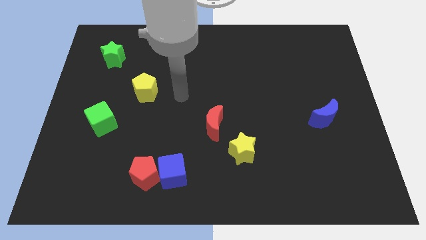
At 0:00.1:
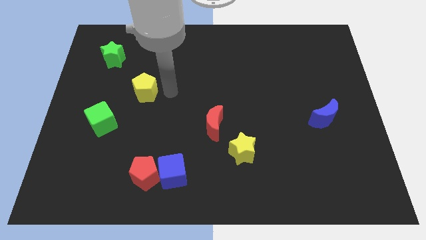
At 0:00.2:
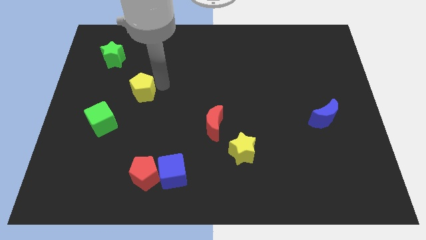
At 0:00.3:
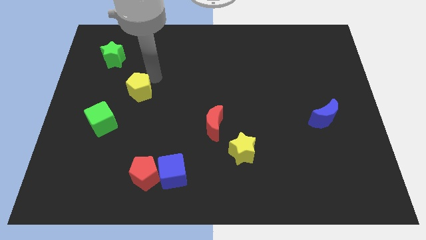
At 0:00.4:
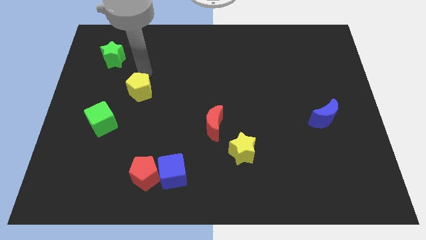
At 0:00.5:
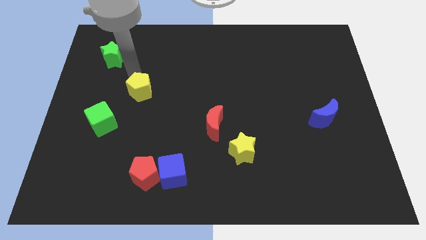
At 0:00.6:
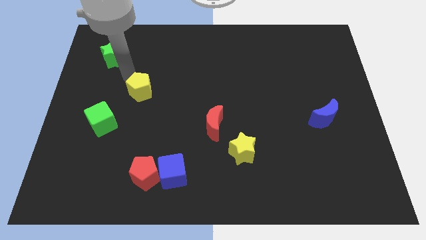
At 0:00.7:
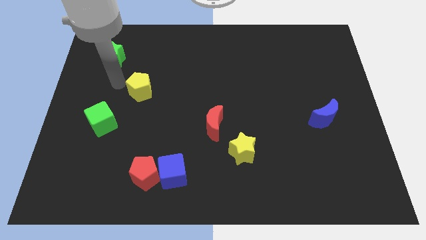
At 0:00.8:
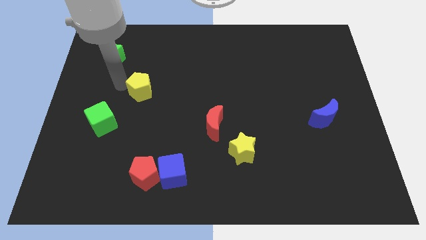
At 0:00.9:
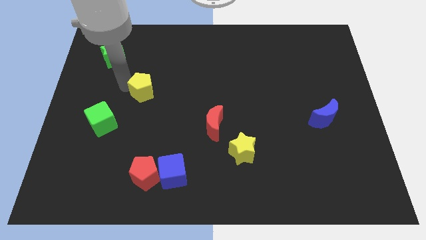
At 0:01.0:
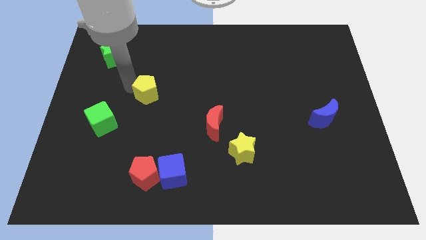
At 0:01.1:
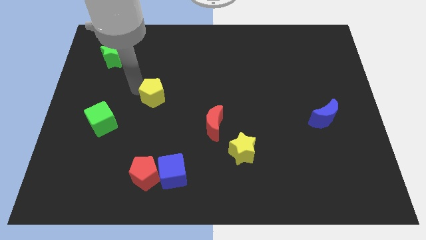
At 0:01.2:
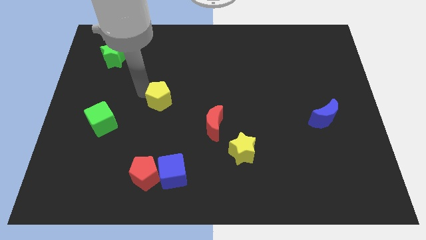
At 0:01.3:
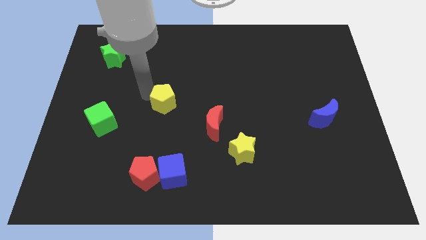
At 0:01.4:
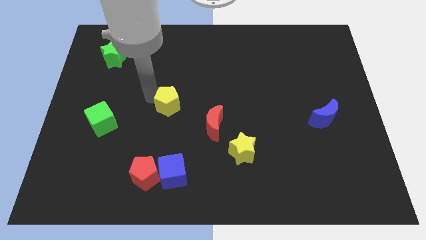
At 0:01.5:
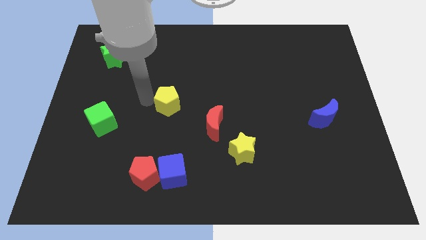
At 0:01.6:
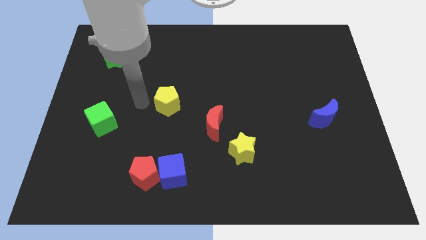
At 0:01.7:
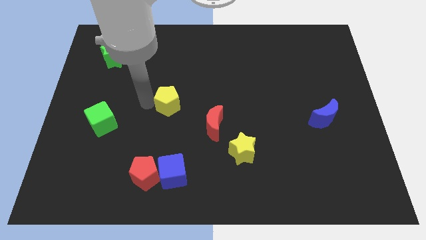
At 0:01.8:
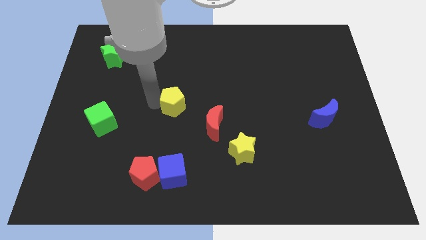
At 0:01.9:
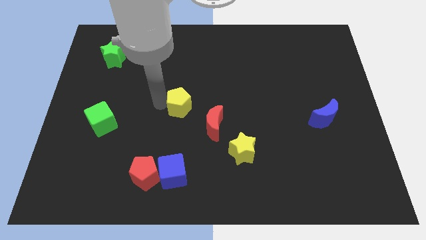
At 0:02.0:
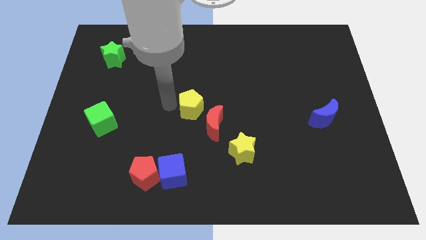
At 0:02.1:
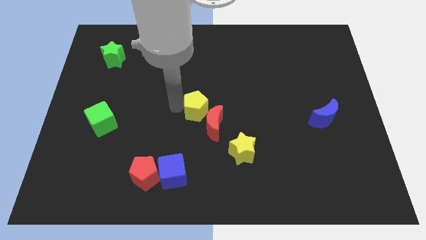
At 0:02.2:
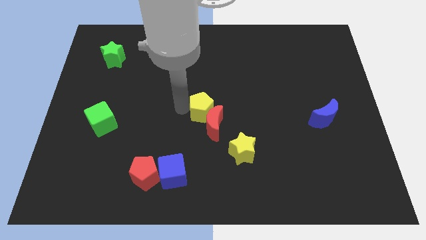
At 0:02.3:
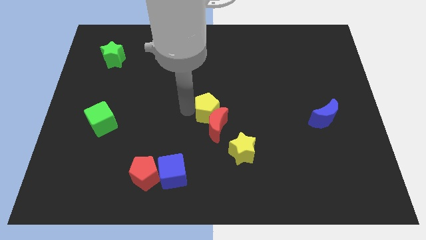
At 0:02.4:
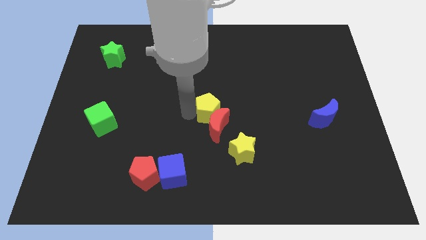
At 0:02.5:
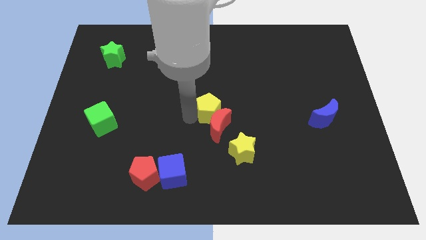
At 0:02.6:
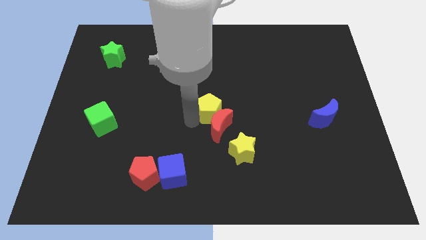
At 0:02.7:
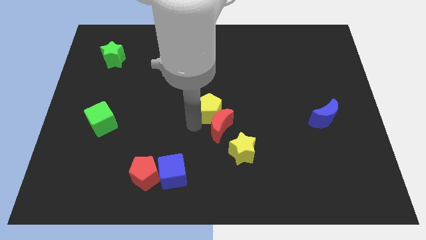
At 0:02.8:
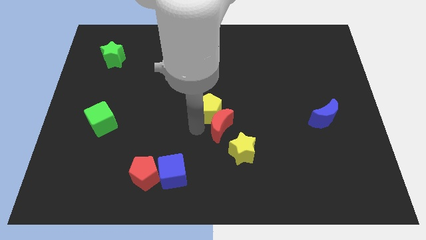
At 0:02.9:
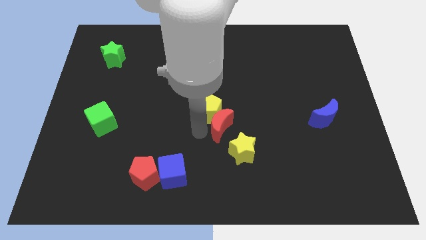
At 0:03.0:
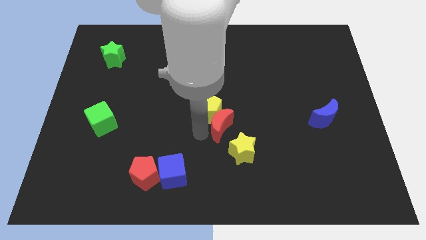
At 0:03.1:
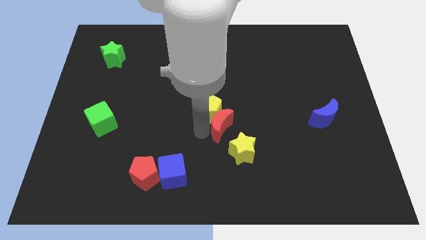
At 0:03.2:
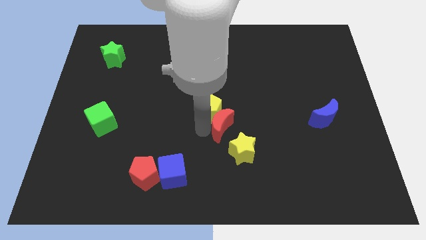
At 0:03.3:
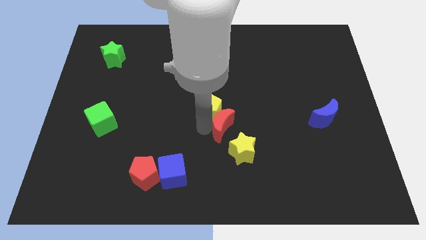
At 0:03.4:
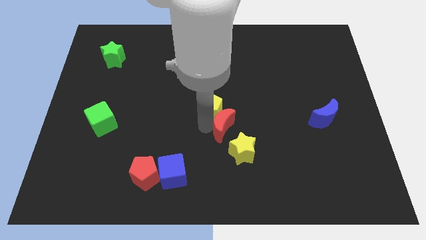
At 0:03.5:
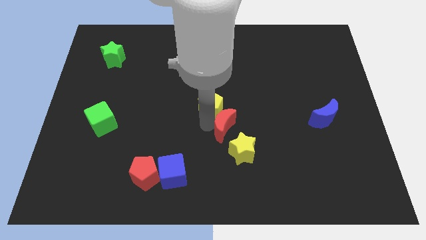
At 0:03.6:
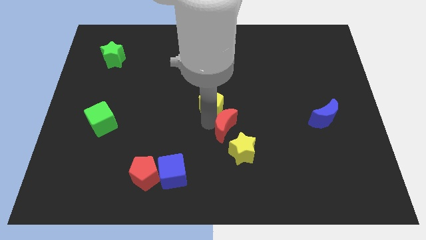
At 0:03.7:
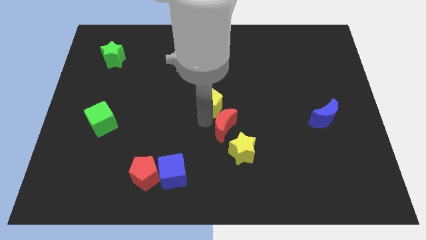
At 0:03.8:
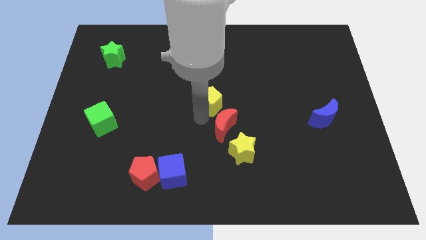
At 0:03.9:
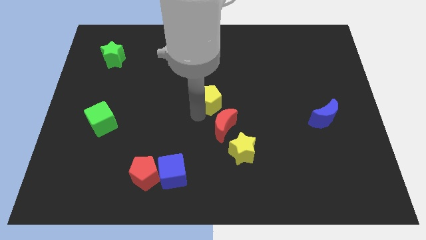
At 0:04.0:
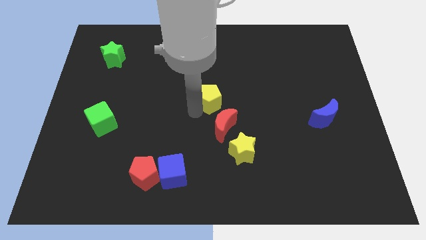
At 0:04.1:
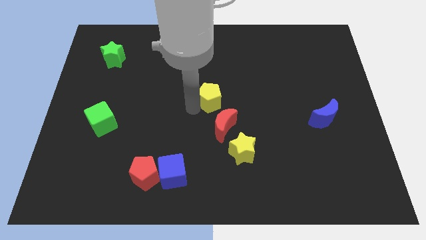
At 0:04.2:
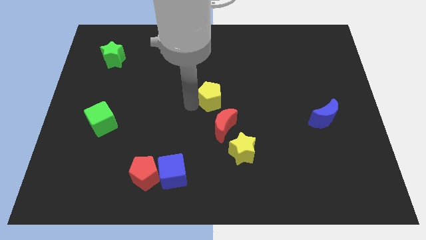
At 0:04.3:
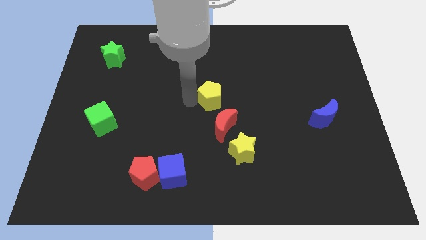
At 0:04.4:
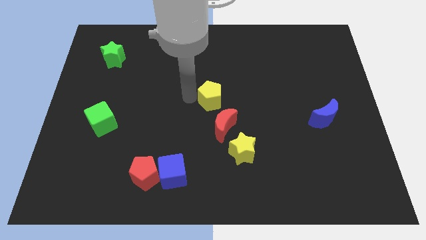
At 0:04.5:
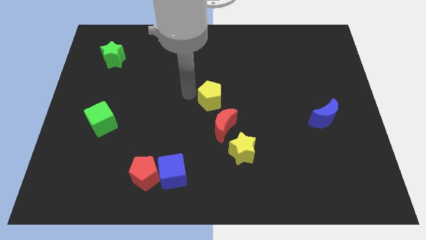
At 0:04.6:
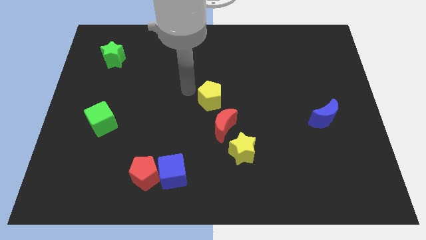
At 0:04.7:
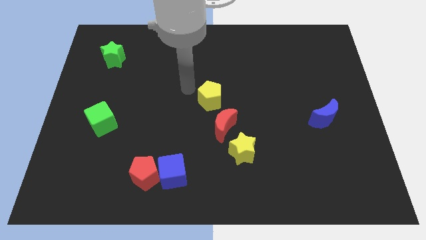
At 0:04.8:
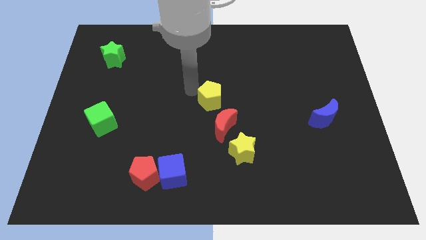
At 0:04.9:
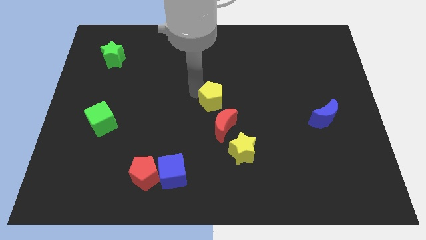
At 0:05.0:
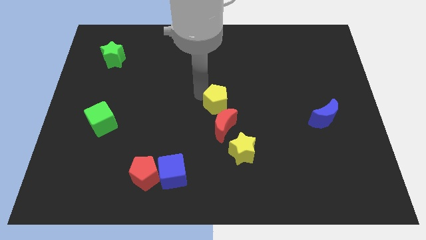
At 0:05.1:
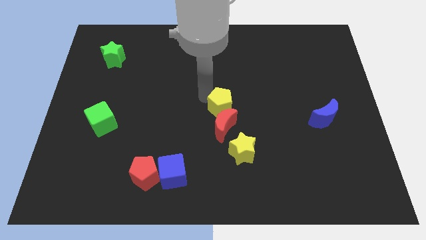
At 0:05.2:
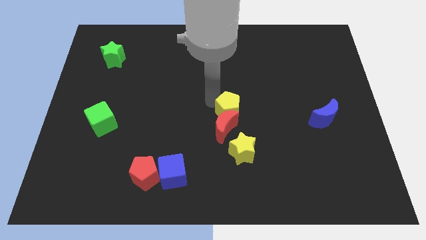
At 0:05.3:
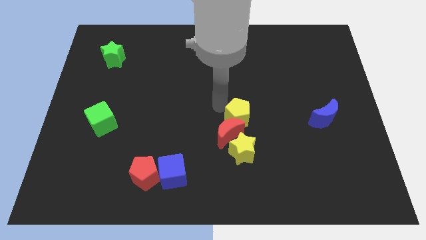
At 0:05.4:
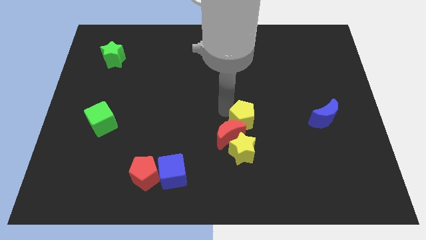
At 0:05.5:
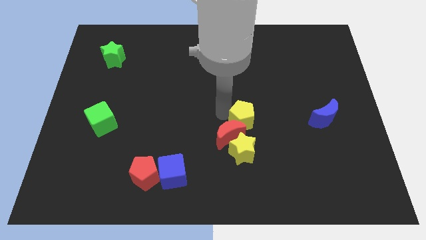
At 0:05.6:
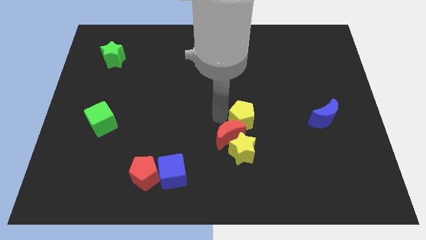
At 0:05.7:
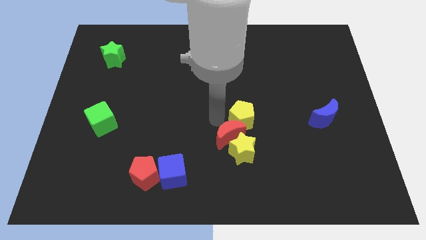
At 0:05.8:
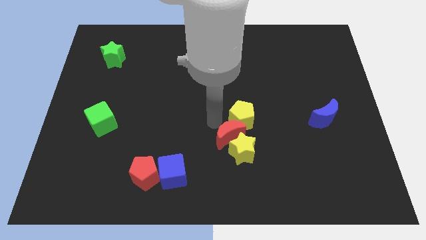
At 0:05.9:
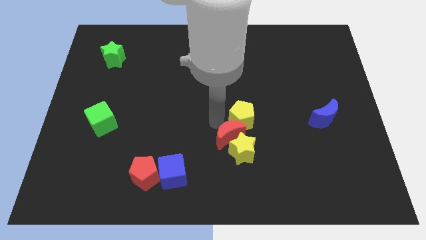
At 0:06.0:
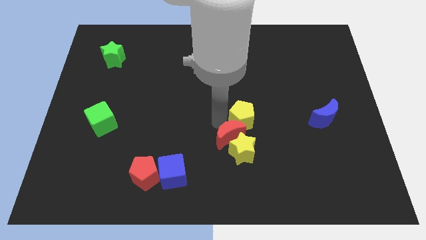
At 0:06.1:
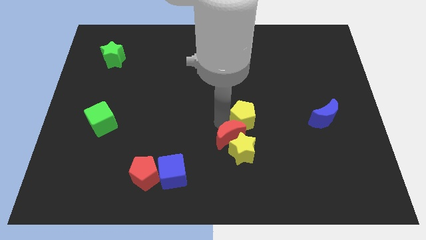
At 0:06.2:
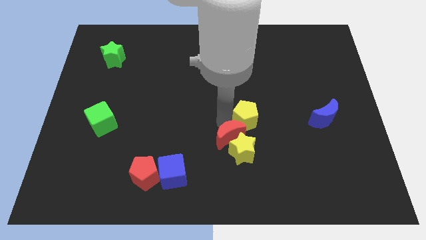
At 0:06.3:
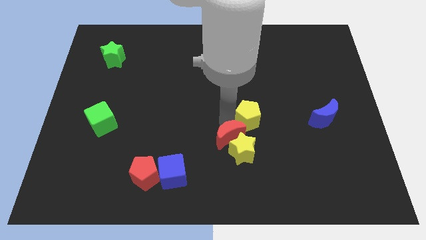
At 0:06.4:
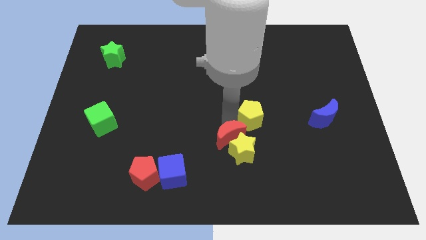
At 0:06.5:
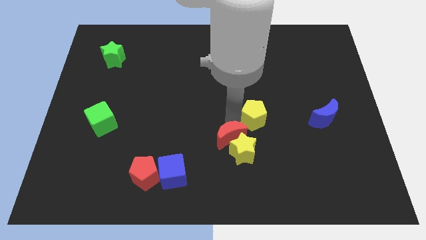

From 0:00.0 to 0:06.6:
put the yellow pentagon left of the blue moon

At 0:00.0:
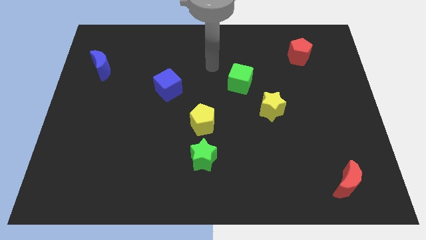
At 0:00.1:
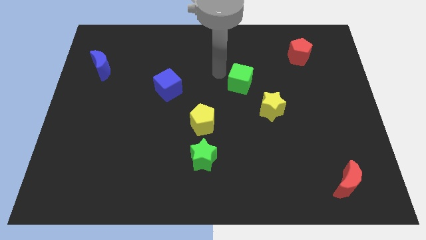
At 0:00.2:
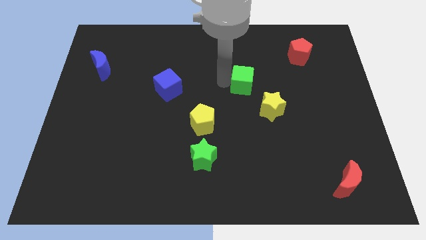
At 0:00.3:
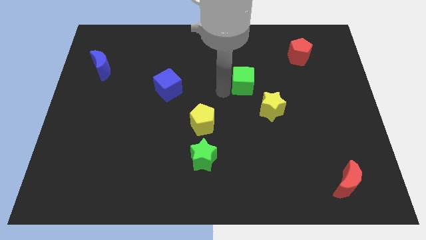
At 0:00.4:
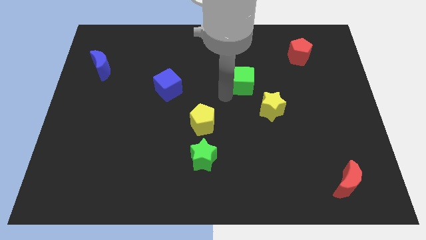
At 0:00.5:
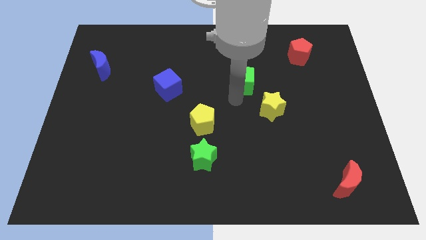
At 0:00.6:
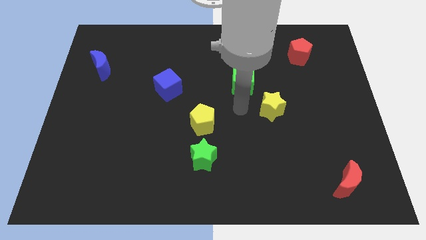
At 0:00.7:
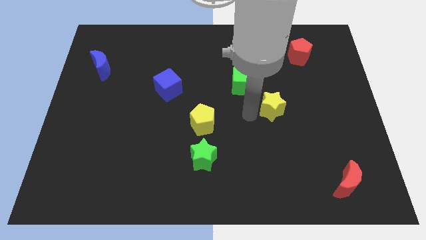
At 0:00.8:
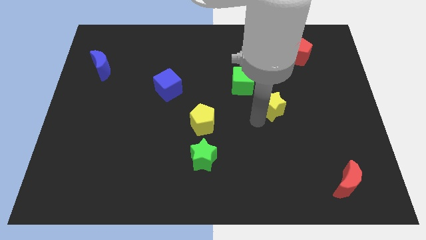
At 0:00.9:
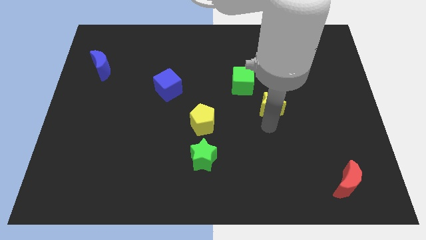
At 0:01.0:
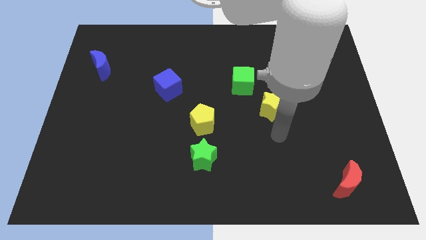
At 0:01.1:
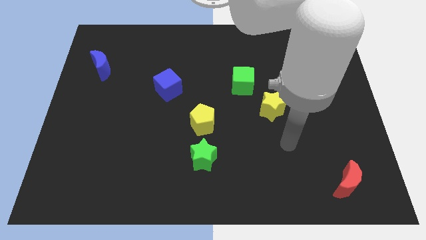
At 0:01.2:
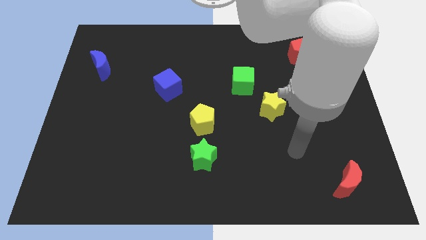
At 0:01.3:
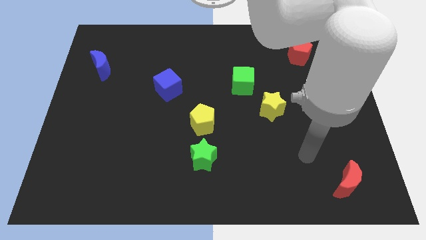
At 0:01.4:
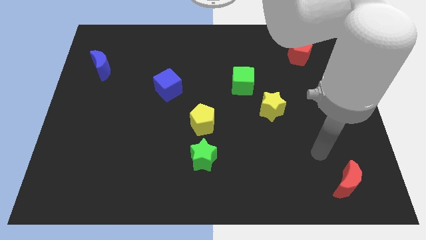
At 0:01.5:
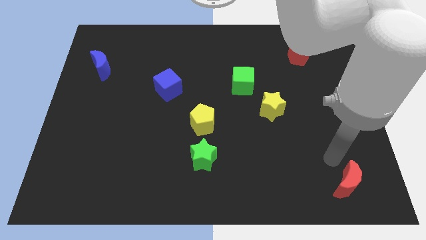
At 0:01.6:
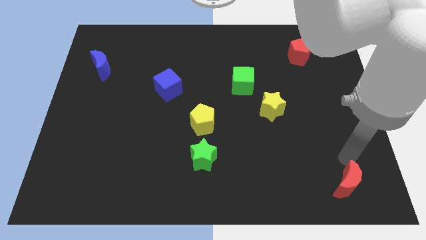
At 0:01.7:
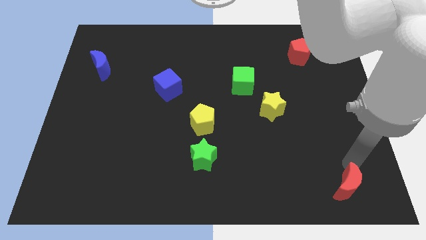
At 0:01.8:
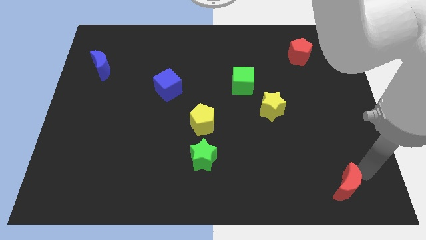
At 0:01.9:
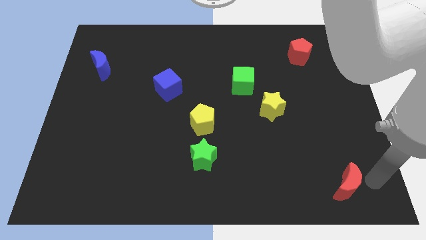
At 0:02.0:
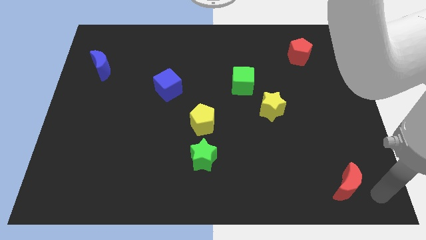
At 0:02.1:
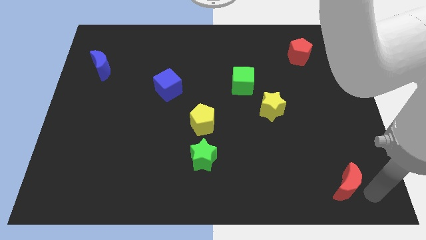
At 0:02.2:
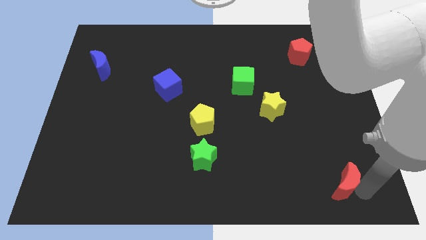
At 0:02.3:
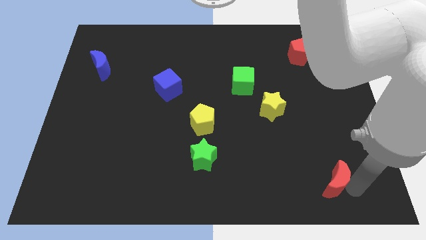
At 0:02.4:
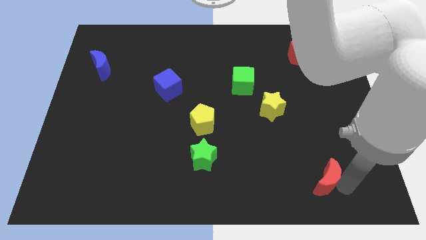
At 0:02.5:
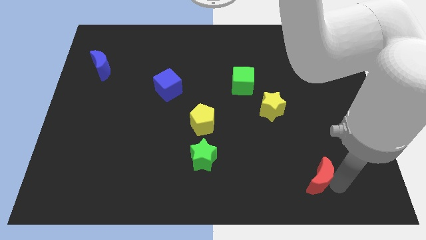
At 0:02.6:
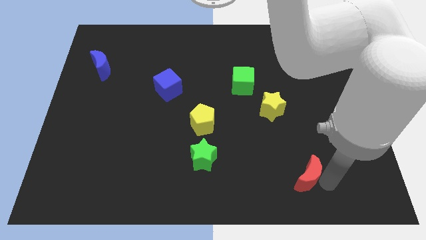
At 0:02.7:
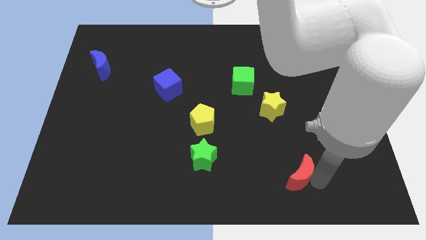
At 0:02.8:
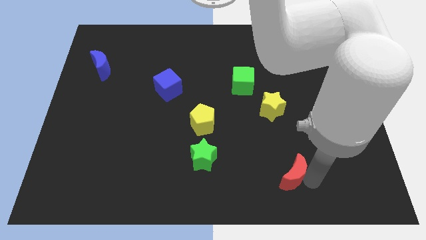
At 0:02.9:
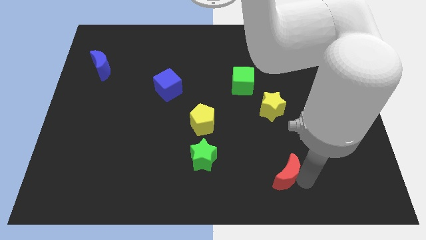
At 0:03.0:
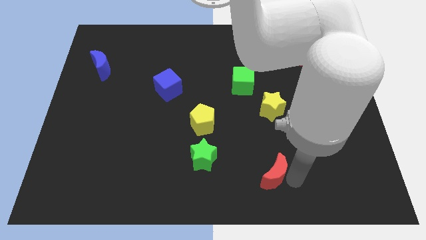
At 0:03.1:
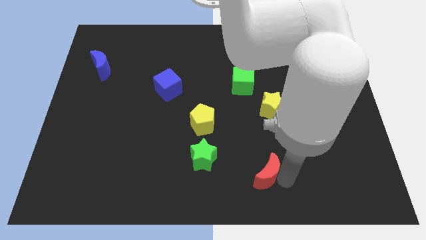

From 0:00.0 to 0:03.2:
push the red moon to the right of the green star
